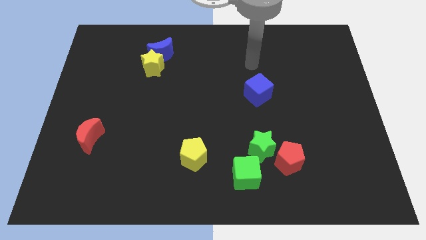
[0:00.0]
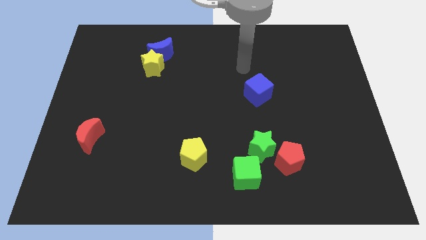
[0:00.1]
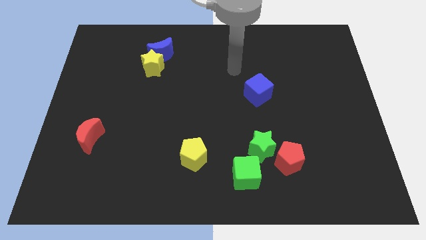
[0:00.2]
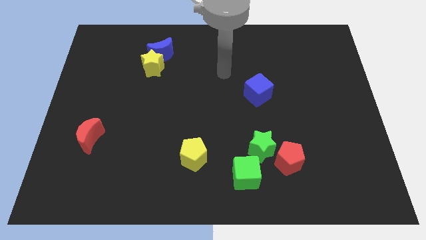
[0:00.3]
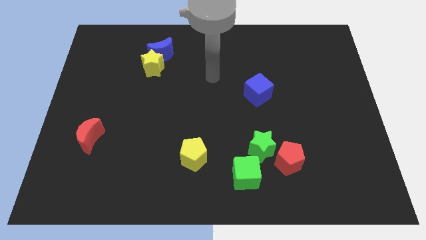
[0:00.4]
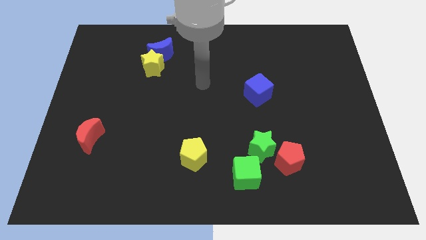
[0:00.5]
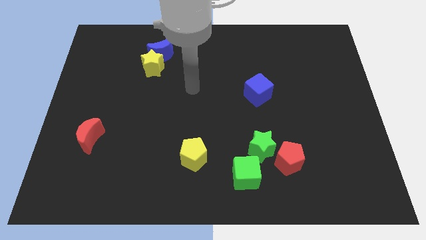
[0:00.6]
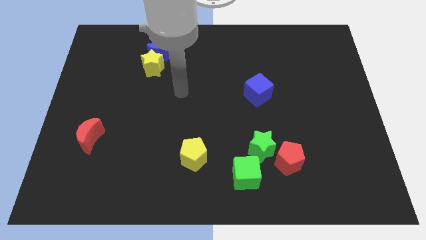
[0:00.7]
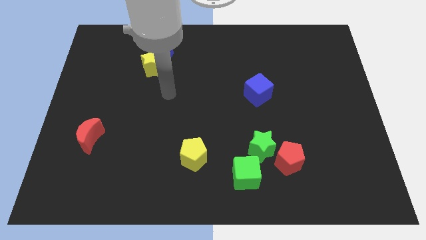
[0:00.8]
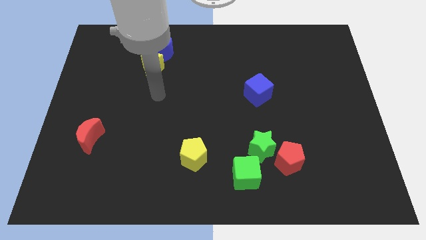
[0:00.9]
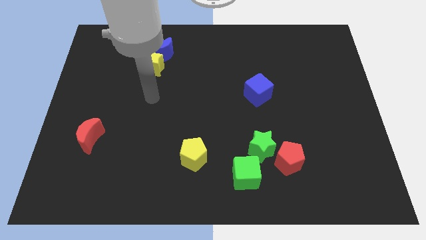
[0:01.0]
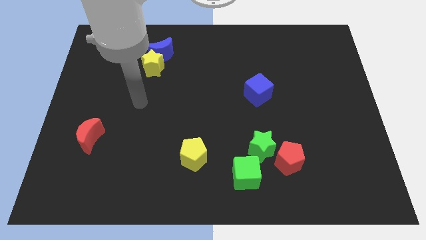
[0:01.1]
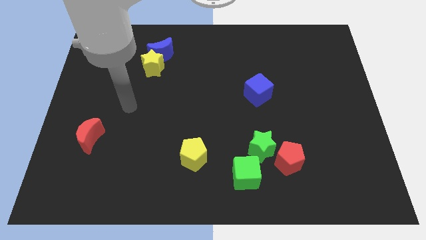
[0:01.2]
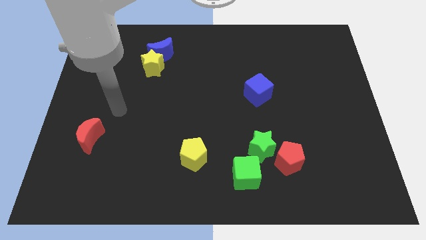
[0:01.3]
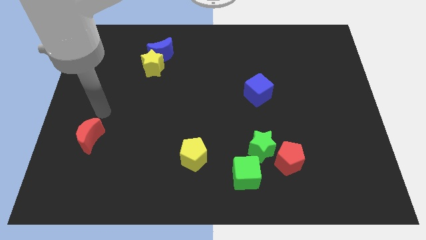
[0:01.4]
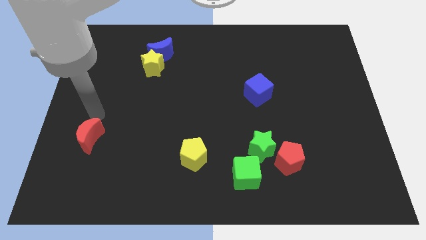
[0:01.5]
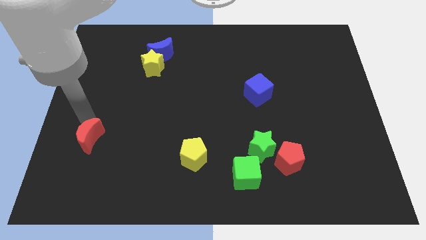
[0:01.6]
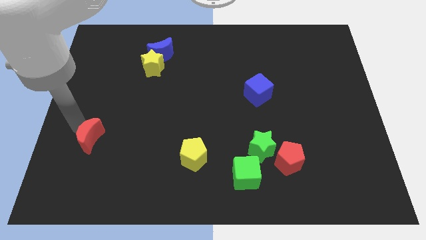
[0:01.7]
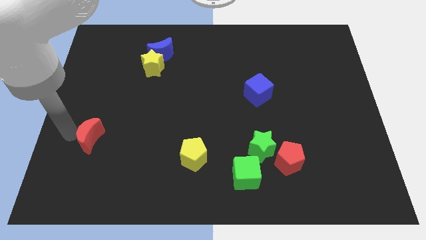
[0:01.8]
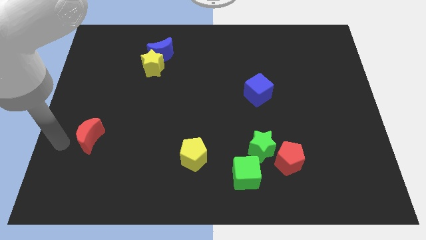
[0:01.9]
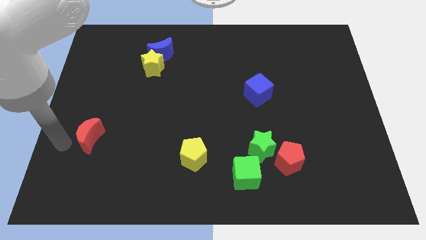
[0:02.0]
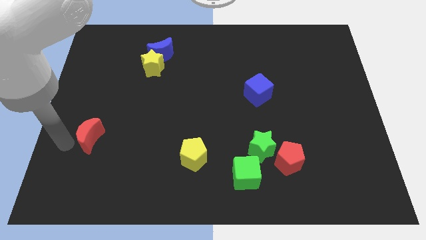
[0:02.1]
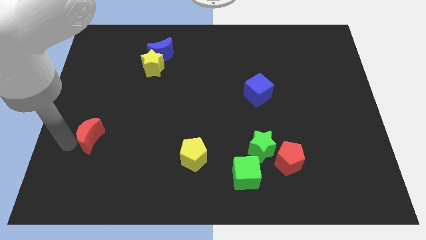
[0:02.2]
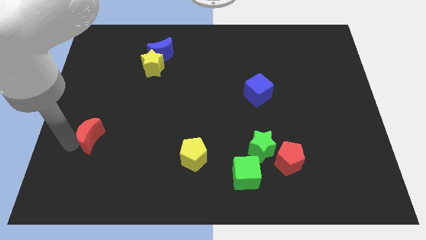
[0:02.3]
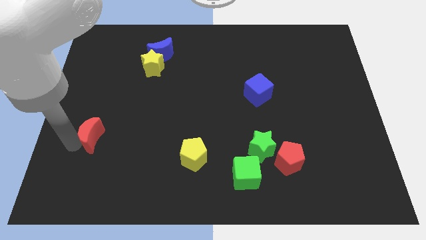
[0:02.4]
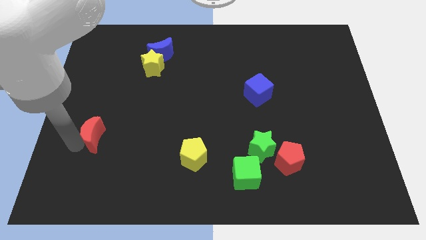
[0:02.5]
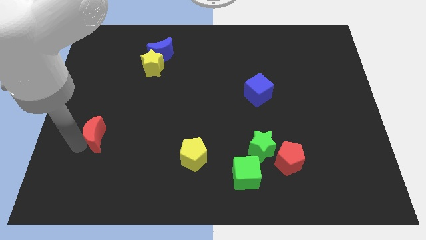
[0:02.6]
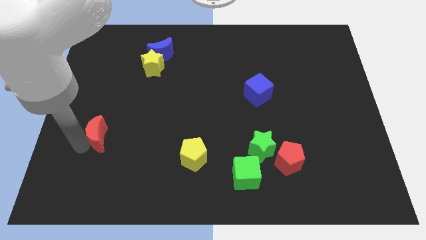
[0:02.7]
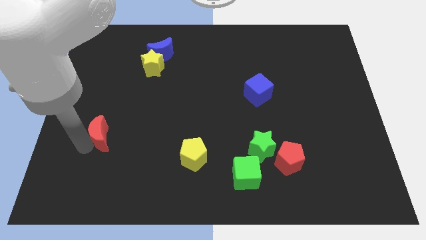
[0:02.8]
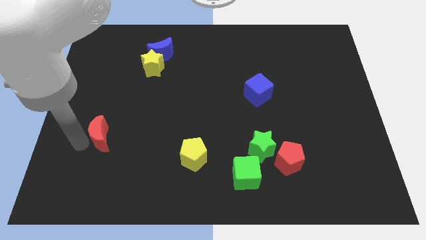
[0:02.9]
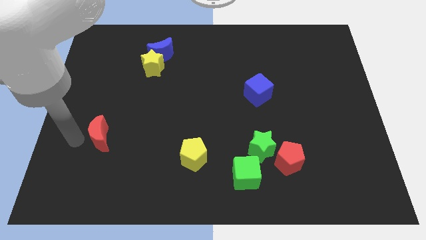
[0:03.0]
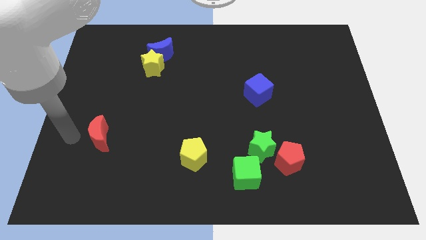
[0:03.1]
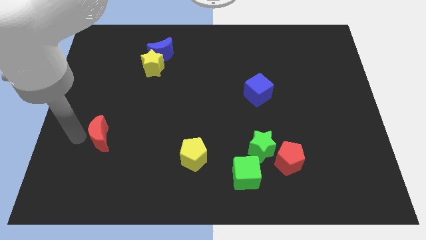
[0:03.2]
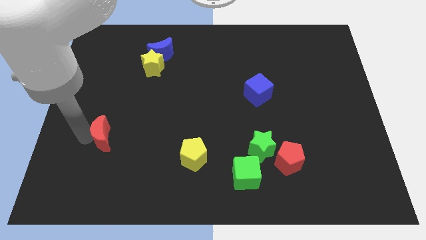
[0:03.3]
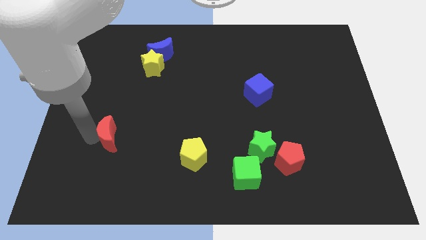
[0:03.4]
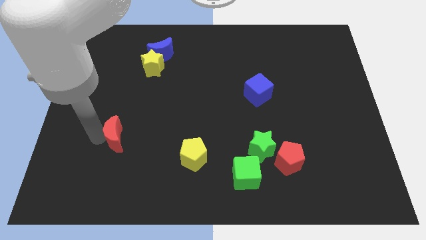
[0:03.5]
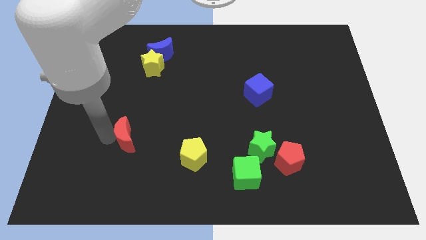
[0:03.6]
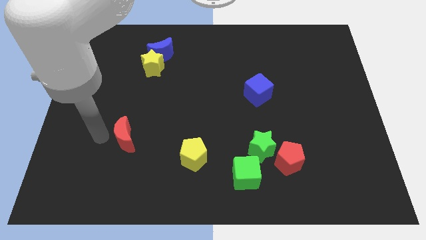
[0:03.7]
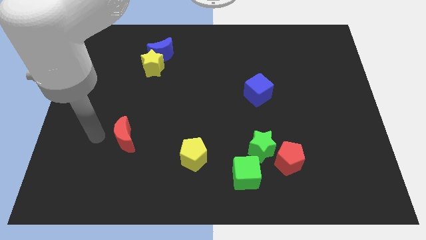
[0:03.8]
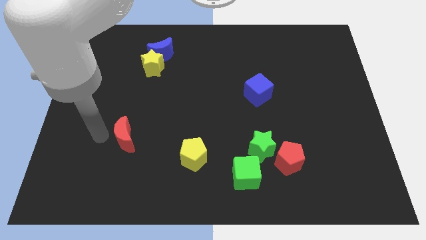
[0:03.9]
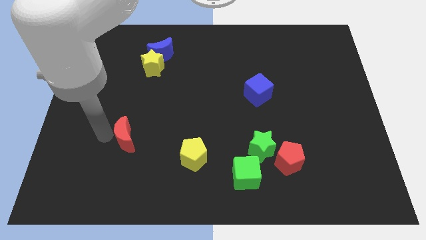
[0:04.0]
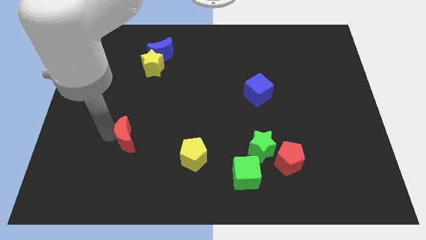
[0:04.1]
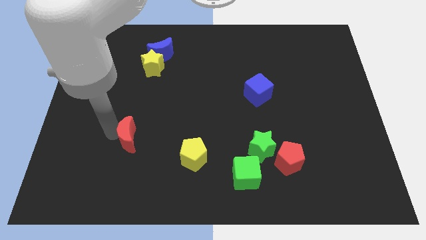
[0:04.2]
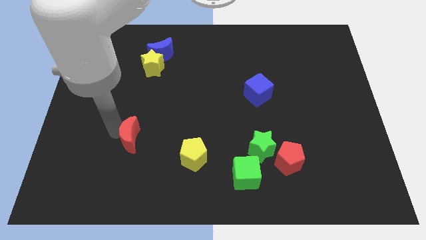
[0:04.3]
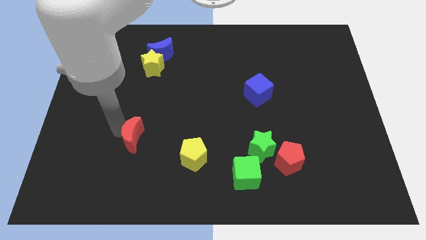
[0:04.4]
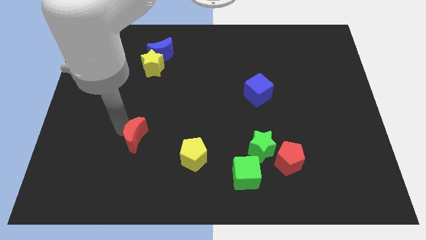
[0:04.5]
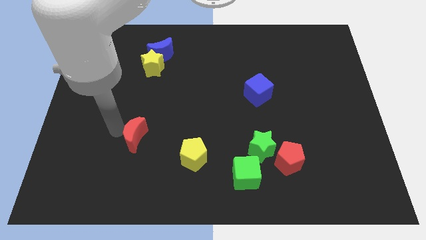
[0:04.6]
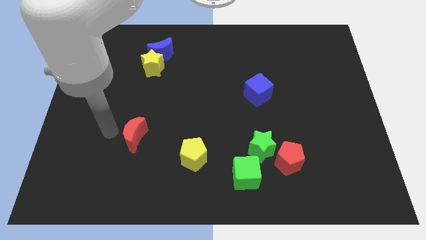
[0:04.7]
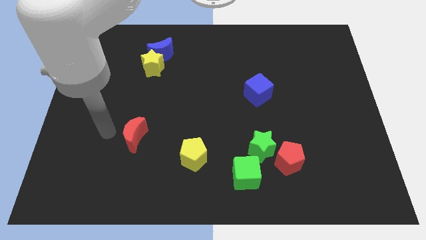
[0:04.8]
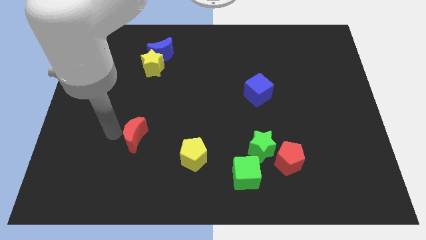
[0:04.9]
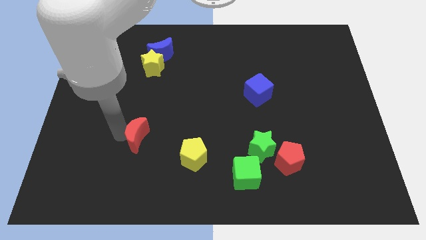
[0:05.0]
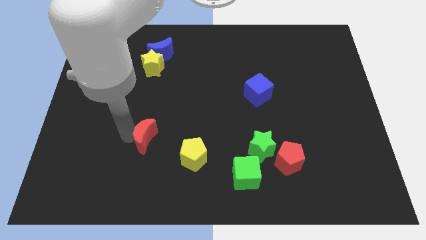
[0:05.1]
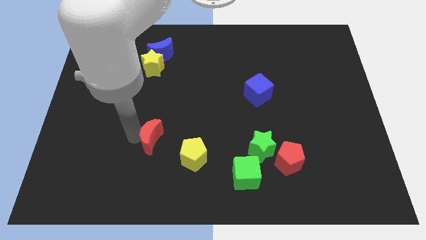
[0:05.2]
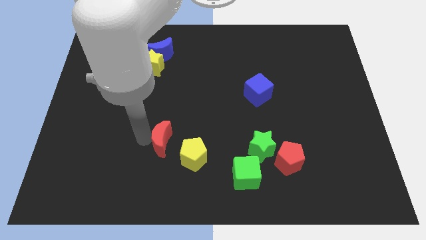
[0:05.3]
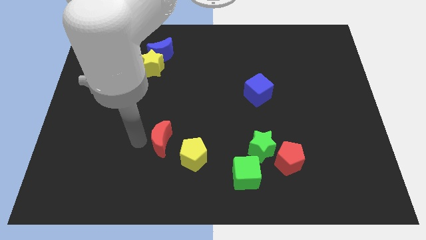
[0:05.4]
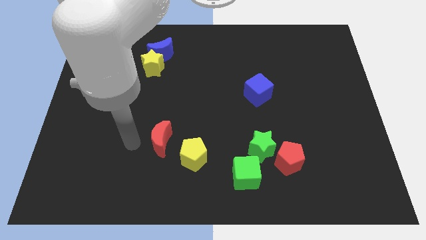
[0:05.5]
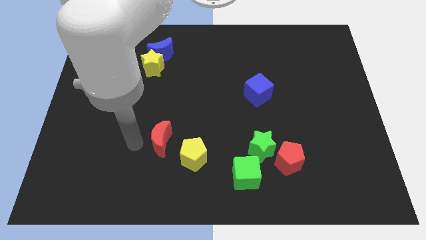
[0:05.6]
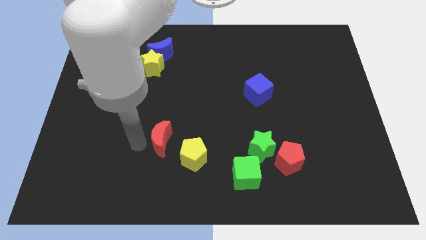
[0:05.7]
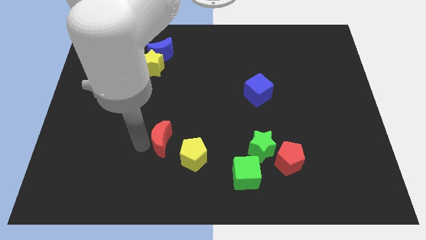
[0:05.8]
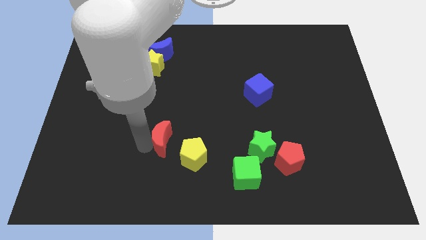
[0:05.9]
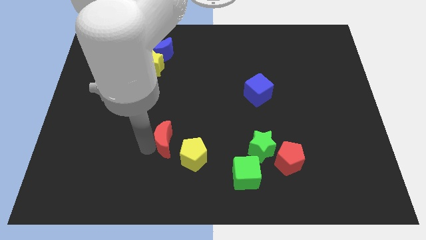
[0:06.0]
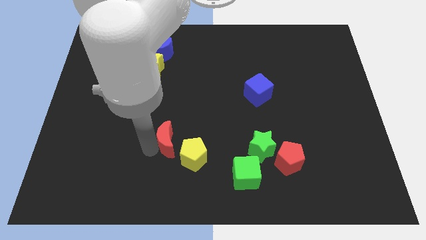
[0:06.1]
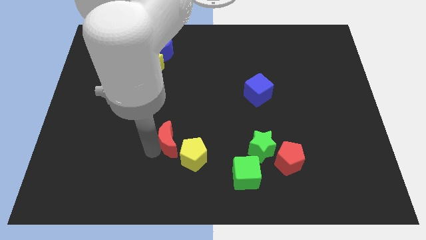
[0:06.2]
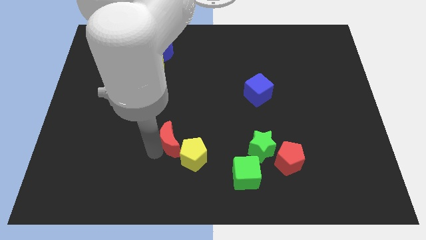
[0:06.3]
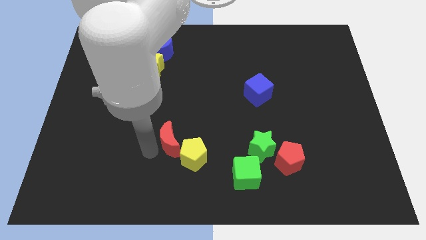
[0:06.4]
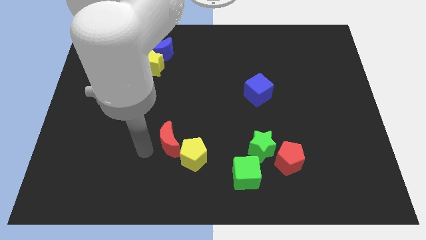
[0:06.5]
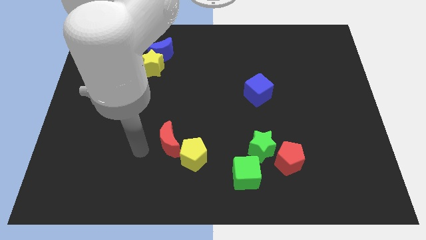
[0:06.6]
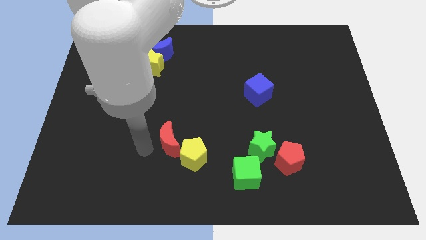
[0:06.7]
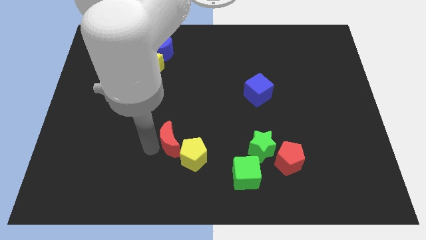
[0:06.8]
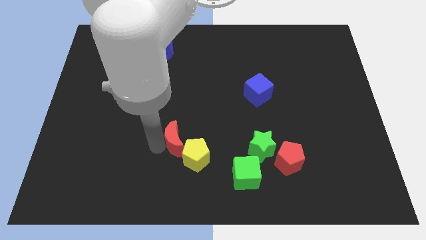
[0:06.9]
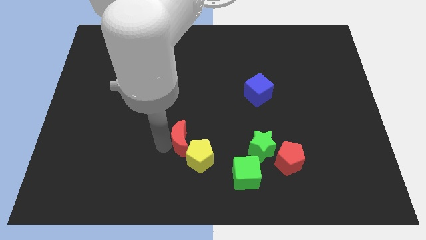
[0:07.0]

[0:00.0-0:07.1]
move the red moon right

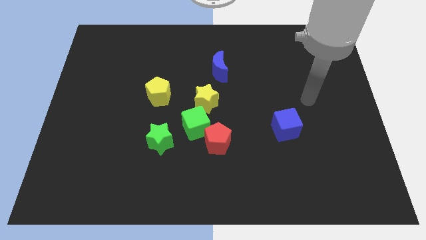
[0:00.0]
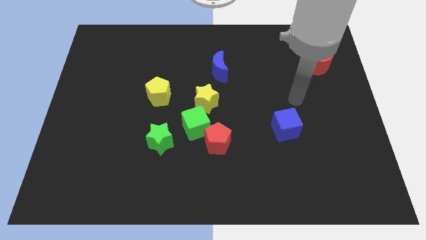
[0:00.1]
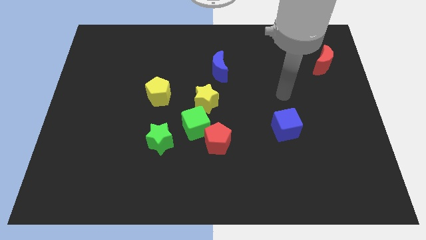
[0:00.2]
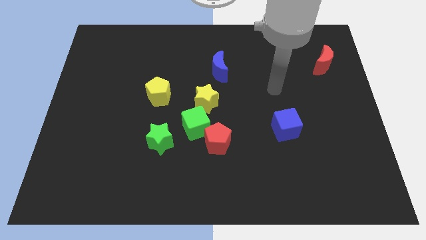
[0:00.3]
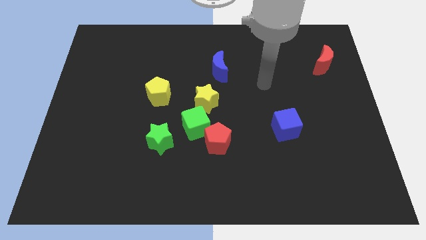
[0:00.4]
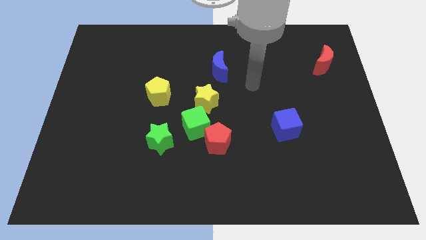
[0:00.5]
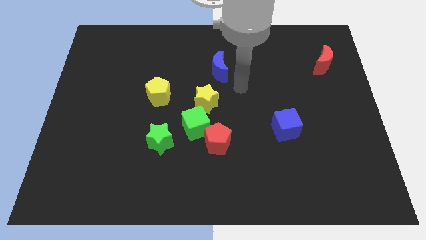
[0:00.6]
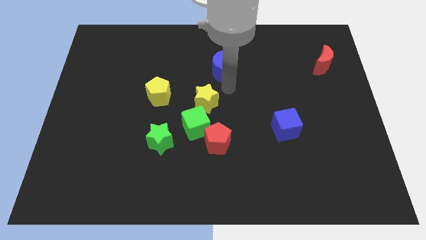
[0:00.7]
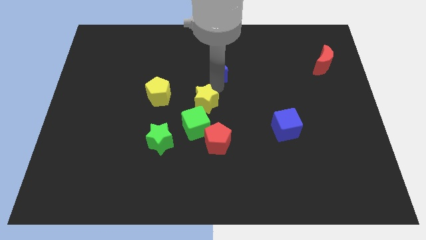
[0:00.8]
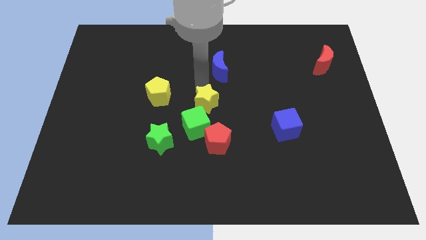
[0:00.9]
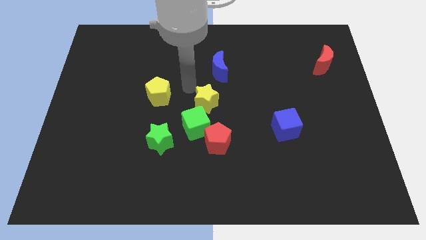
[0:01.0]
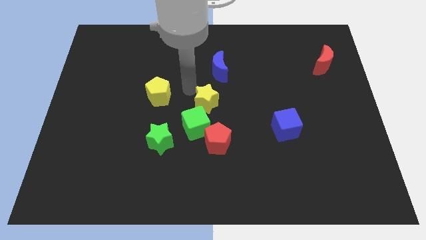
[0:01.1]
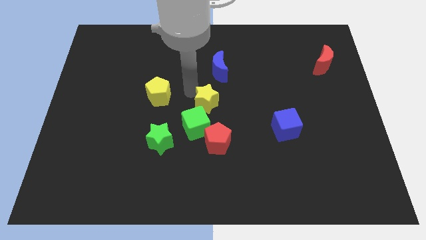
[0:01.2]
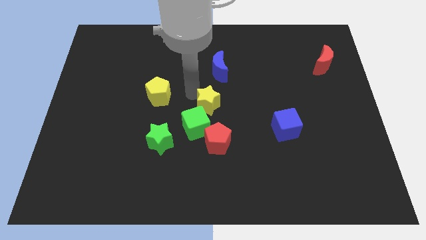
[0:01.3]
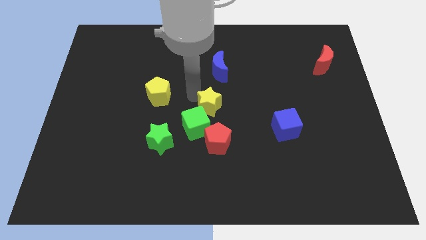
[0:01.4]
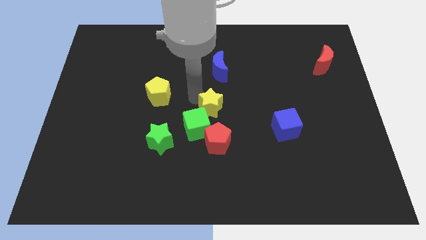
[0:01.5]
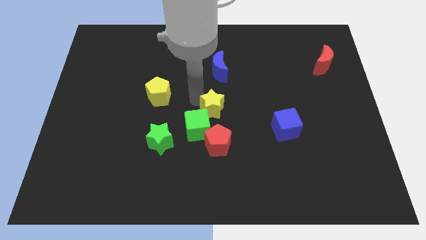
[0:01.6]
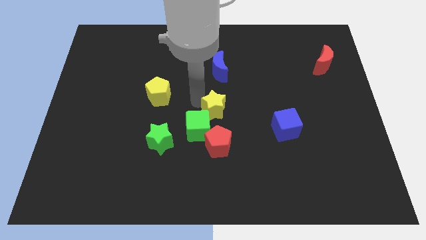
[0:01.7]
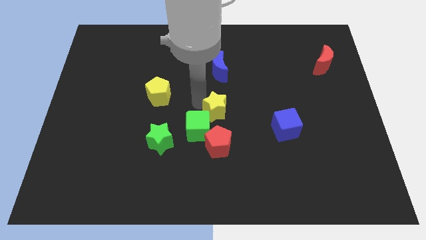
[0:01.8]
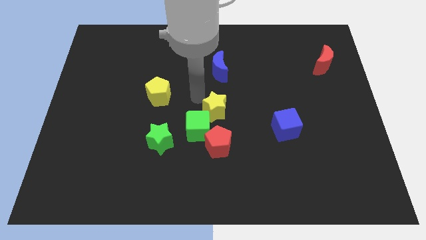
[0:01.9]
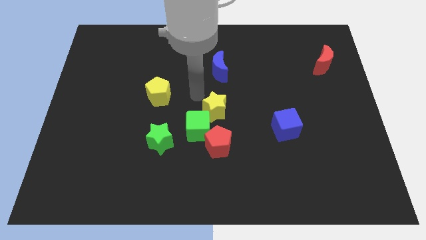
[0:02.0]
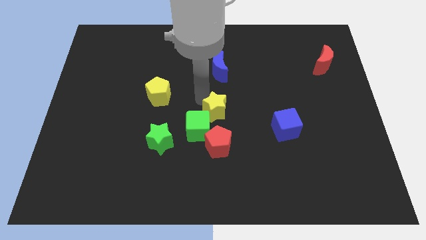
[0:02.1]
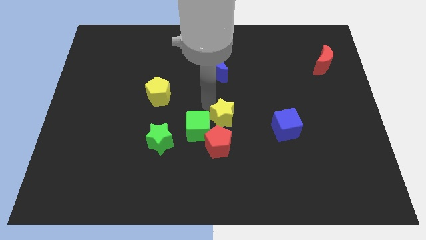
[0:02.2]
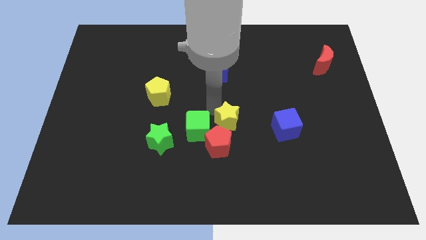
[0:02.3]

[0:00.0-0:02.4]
push the yellow star a little bit down and to the right
